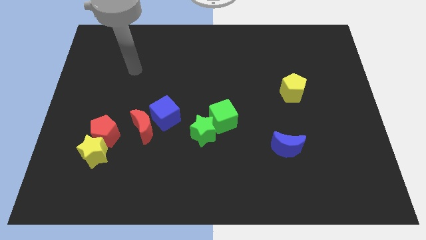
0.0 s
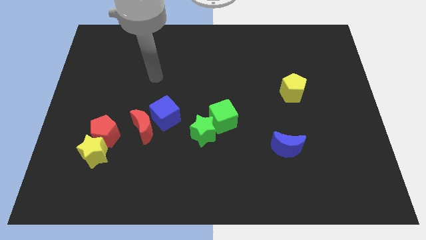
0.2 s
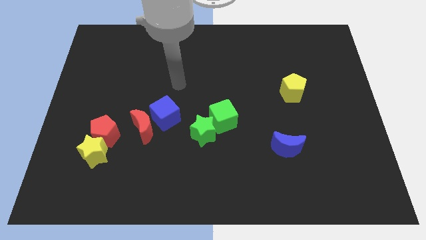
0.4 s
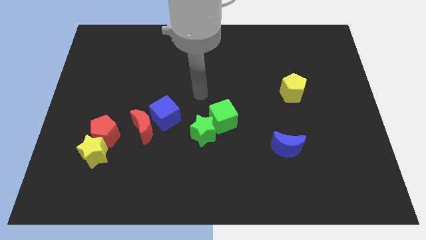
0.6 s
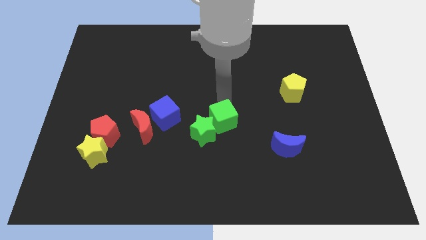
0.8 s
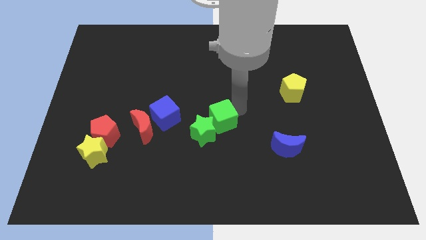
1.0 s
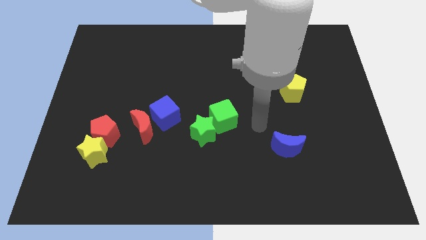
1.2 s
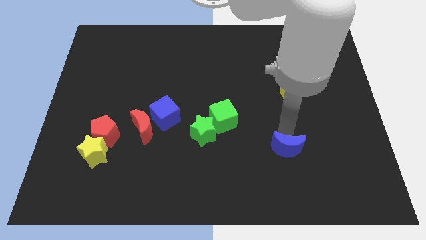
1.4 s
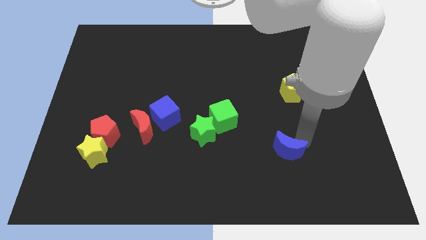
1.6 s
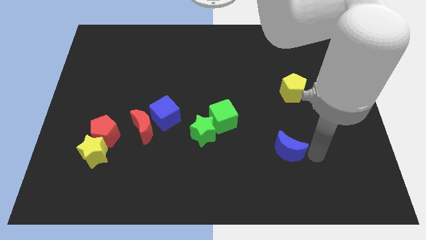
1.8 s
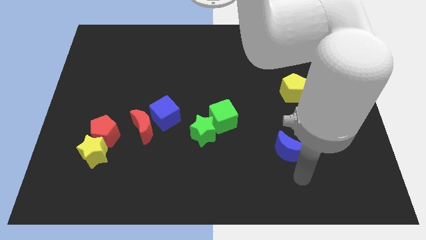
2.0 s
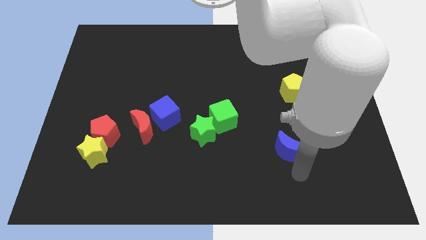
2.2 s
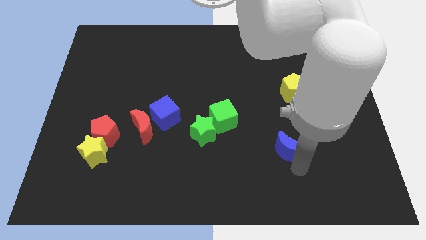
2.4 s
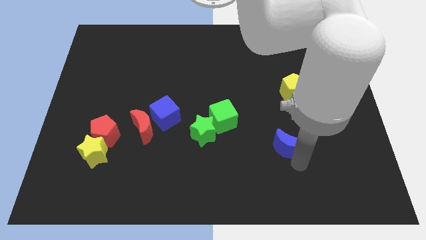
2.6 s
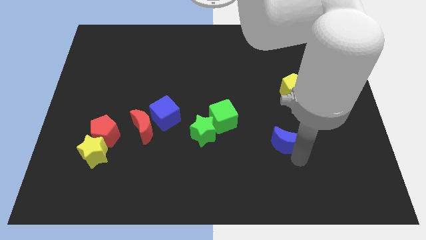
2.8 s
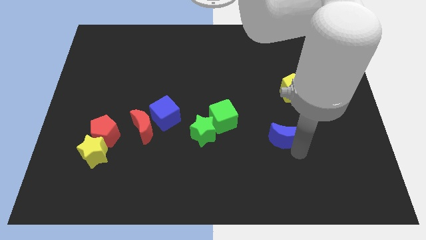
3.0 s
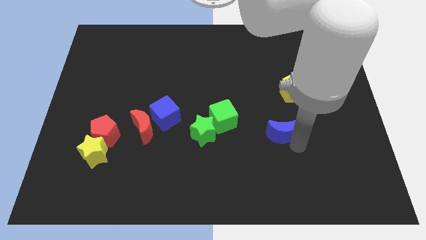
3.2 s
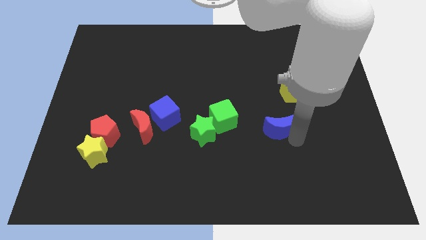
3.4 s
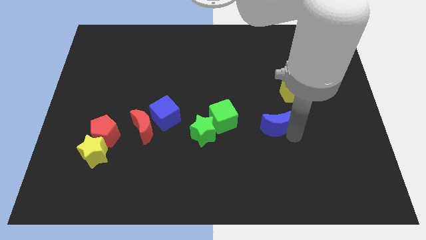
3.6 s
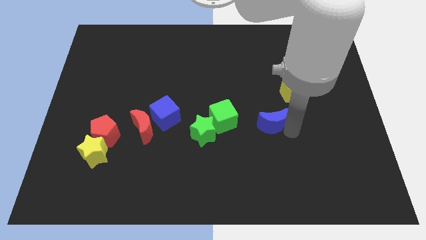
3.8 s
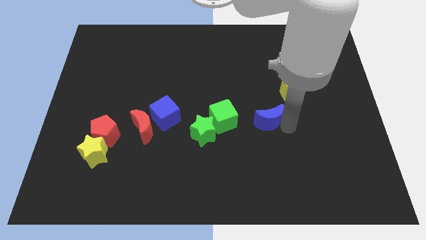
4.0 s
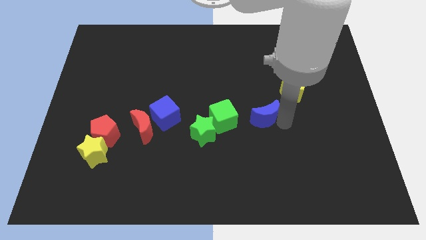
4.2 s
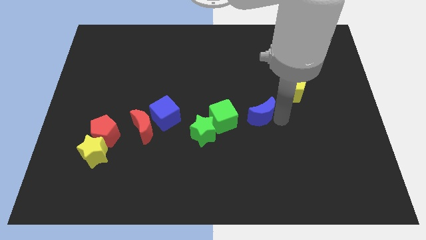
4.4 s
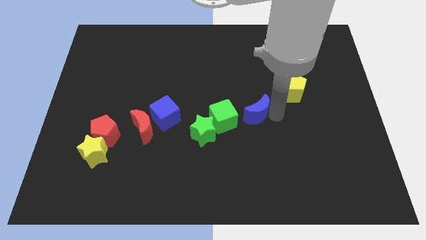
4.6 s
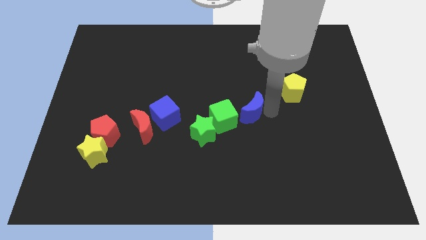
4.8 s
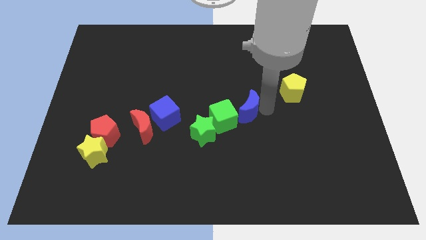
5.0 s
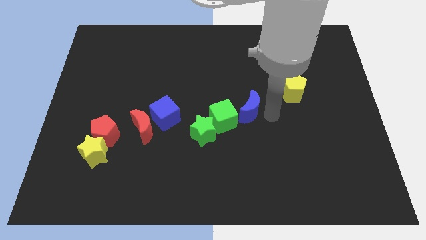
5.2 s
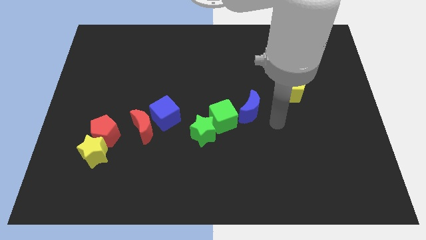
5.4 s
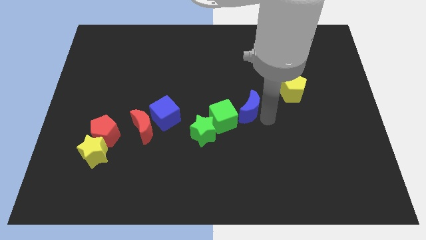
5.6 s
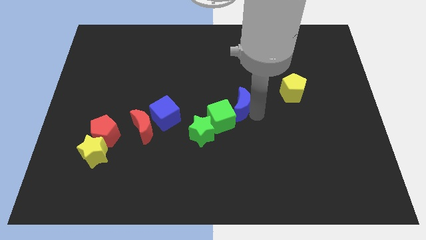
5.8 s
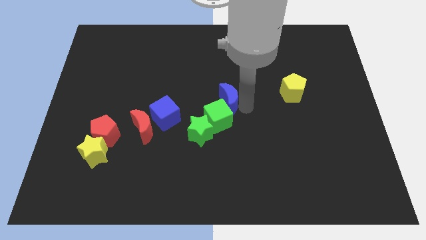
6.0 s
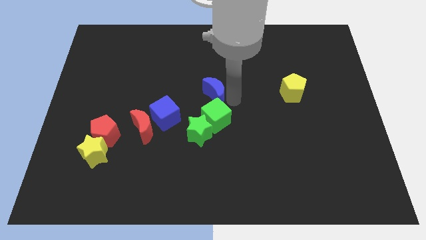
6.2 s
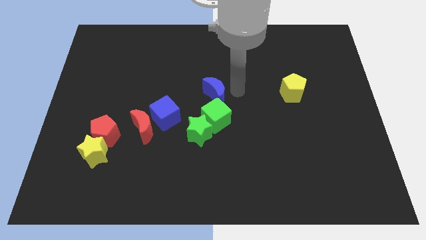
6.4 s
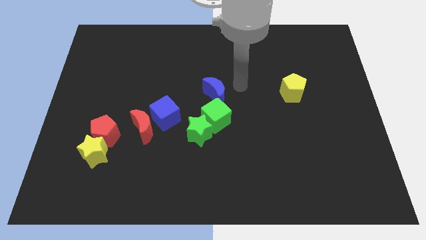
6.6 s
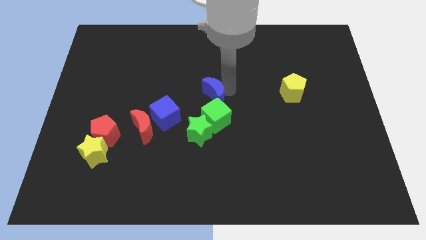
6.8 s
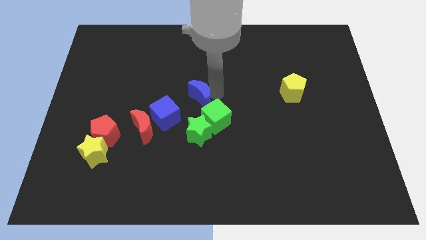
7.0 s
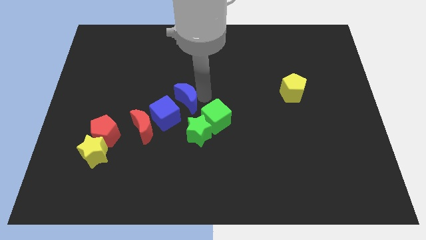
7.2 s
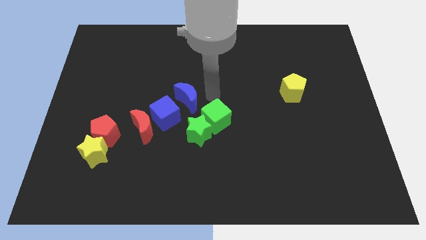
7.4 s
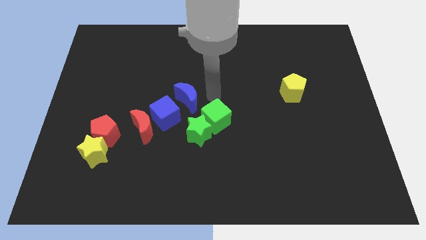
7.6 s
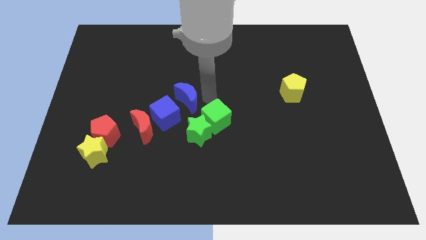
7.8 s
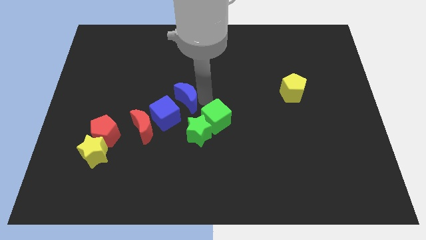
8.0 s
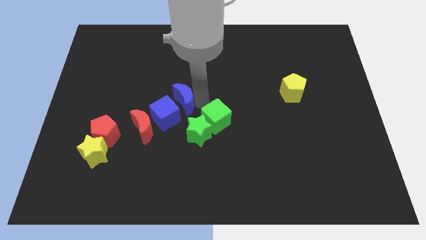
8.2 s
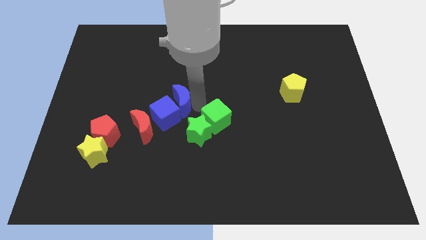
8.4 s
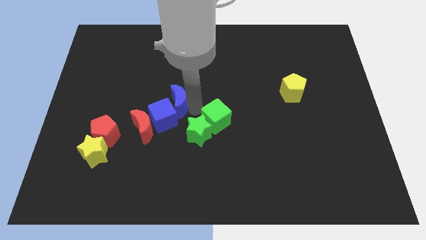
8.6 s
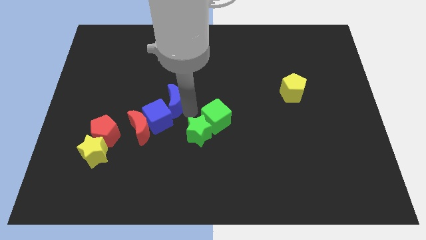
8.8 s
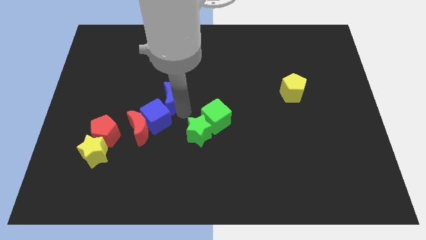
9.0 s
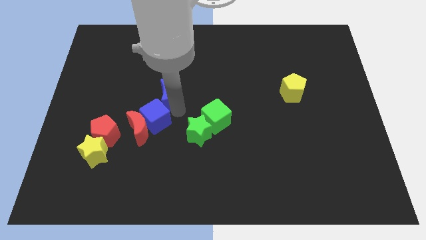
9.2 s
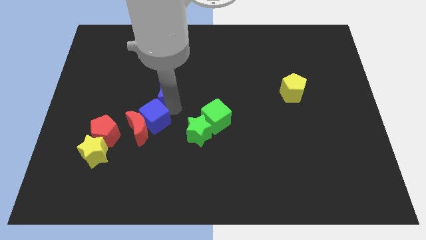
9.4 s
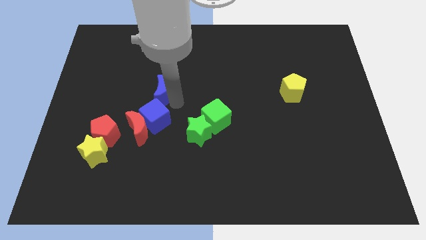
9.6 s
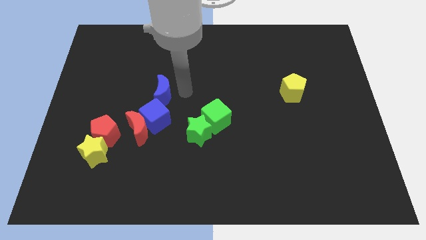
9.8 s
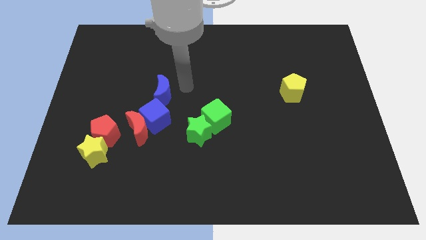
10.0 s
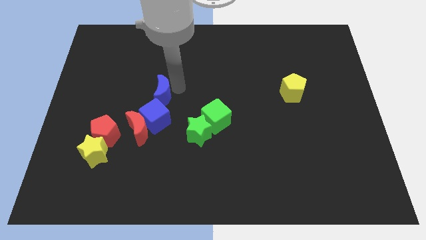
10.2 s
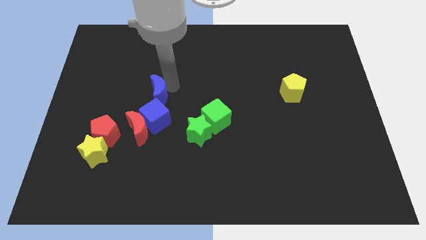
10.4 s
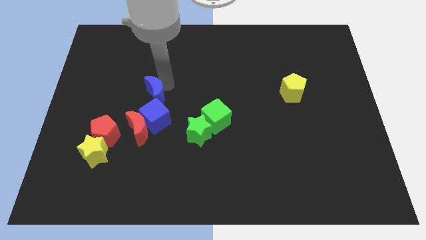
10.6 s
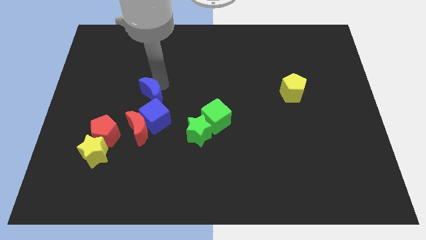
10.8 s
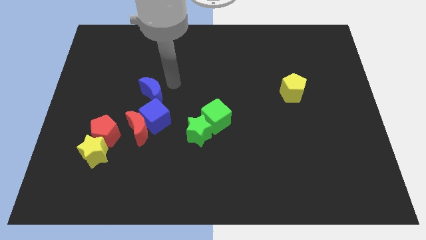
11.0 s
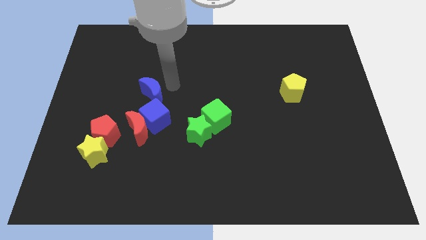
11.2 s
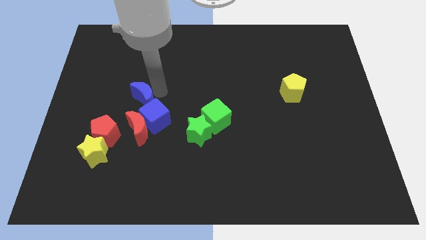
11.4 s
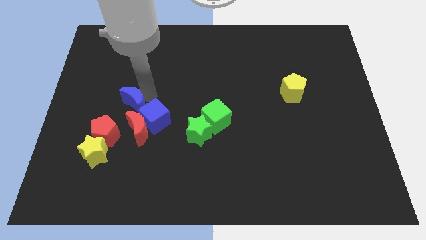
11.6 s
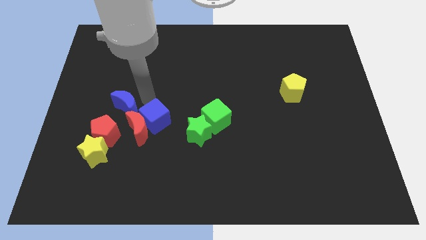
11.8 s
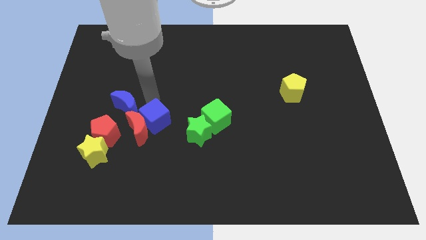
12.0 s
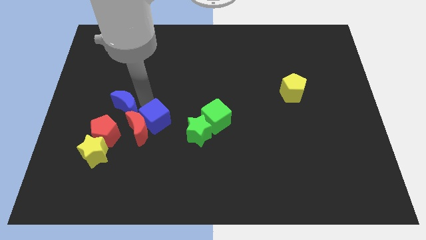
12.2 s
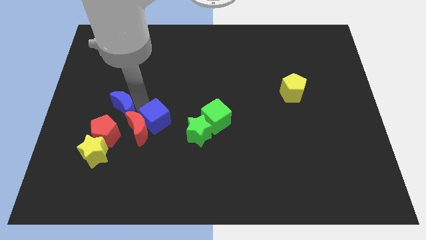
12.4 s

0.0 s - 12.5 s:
move the blue moon above the yellow star

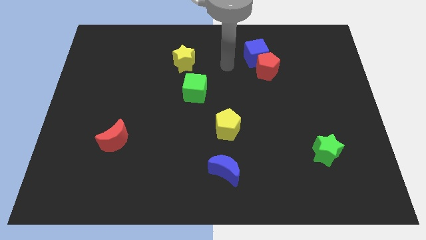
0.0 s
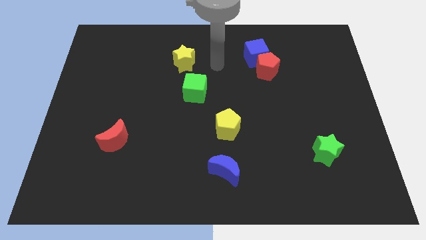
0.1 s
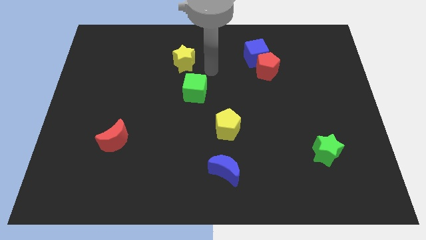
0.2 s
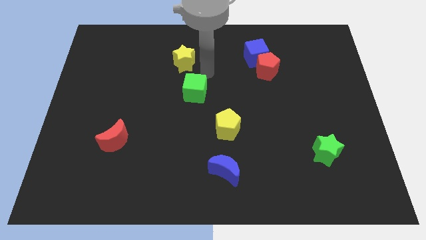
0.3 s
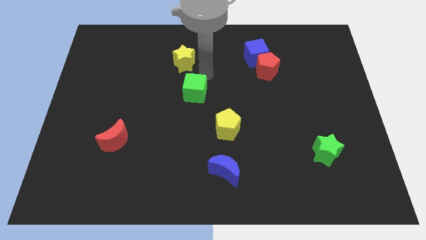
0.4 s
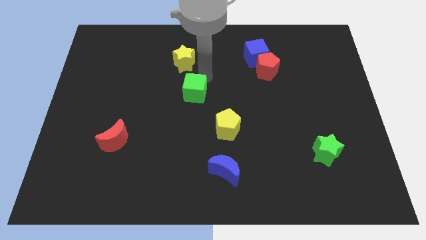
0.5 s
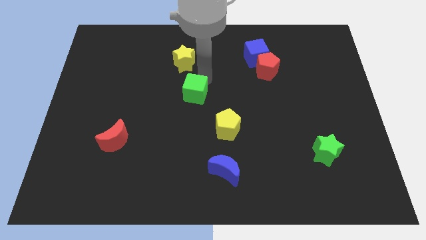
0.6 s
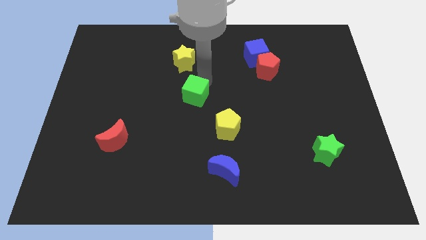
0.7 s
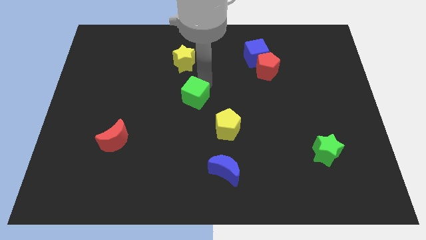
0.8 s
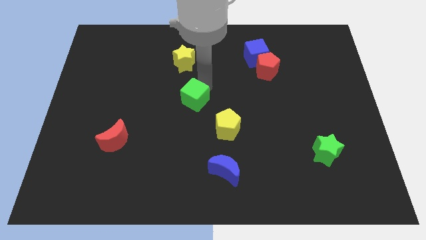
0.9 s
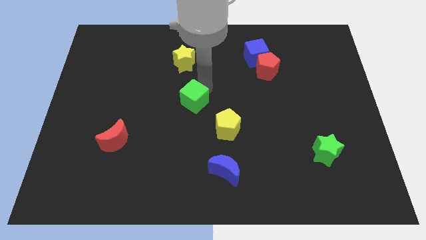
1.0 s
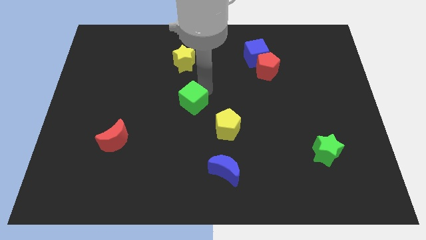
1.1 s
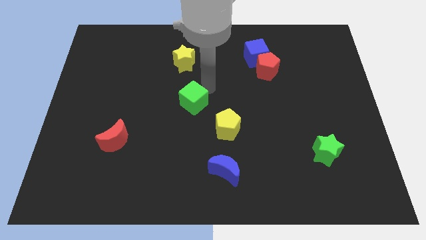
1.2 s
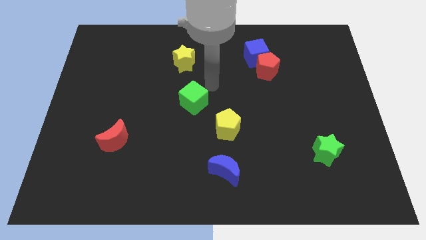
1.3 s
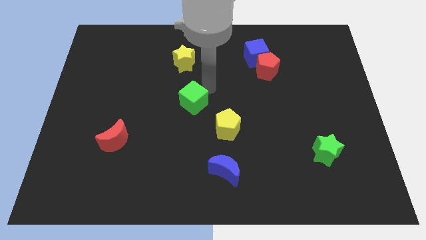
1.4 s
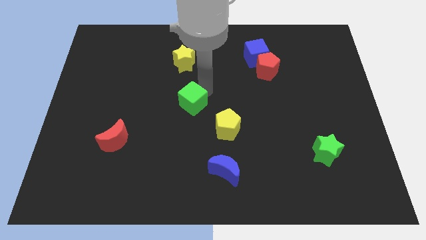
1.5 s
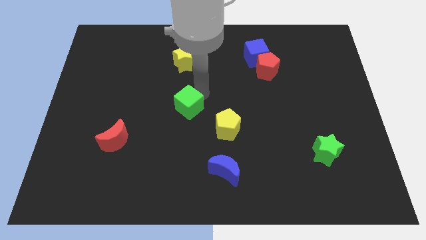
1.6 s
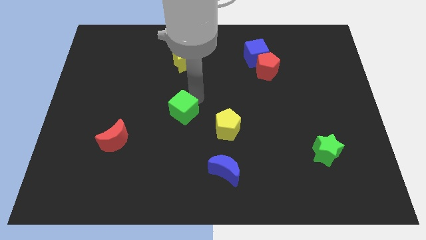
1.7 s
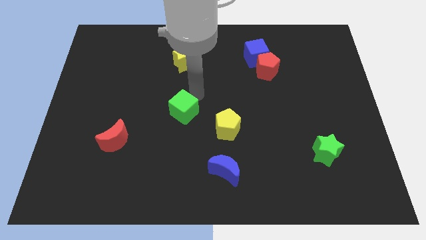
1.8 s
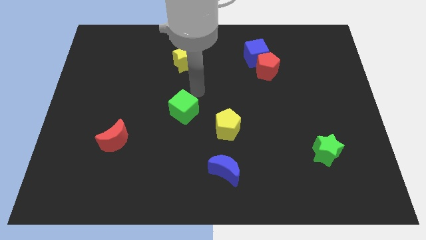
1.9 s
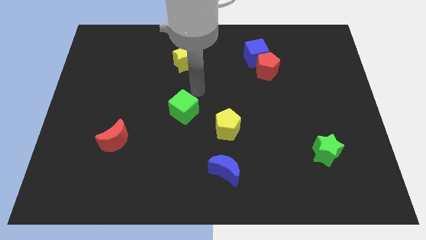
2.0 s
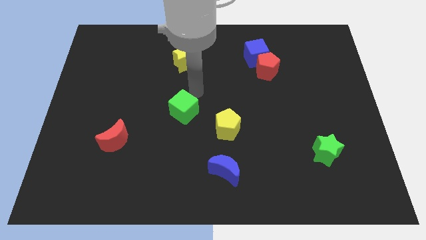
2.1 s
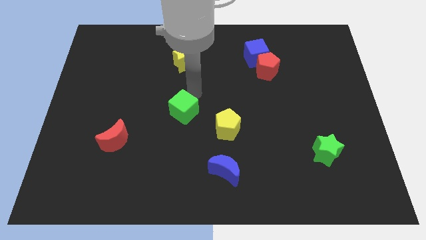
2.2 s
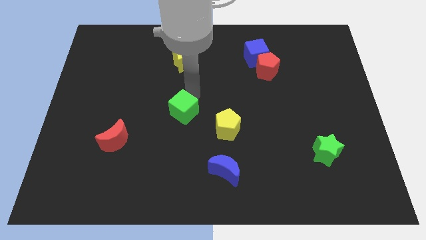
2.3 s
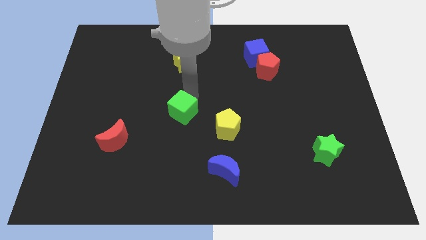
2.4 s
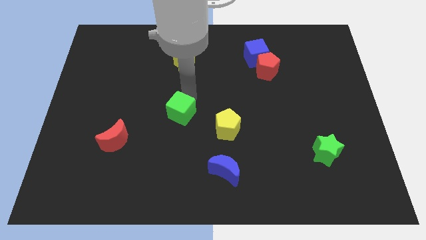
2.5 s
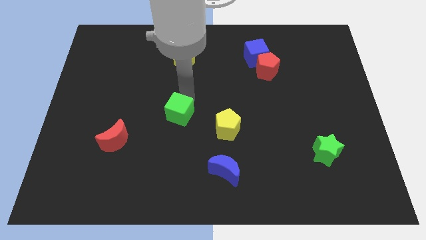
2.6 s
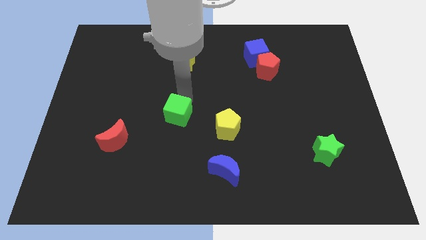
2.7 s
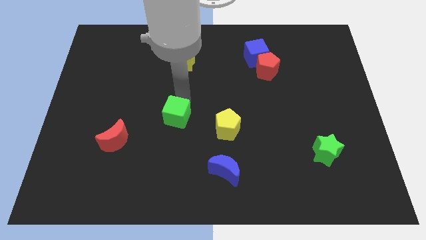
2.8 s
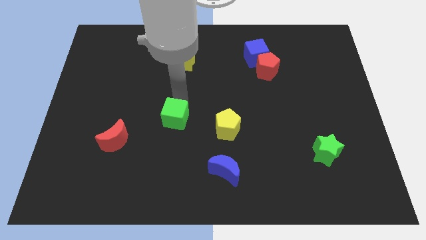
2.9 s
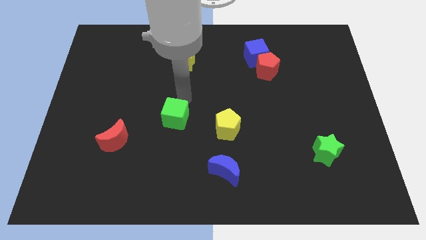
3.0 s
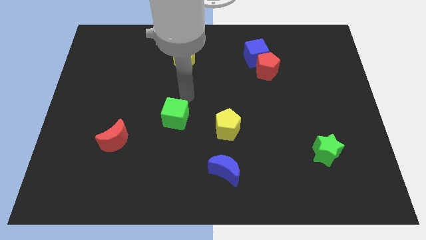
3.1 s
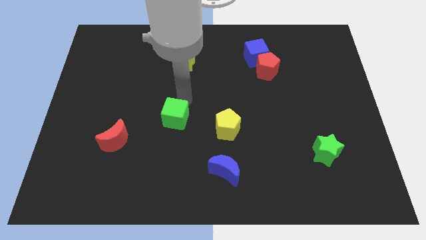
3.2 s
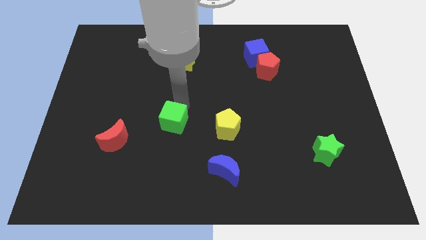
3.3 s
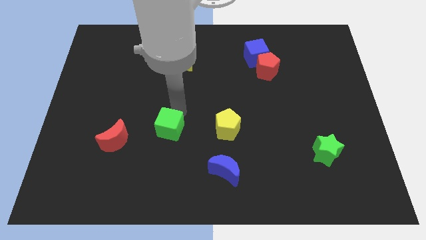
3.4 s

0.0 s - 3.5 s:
push the green cube to the right side of the red moon
